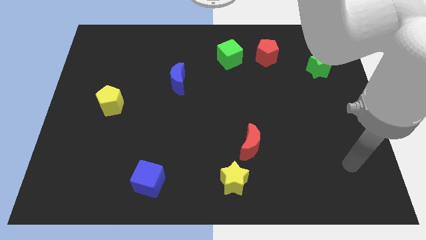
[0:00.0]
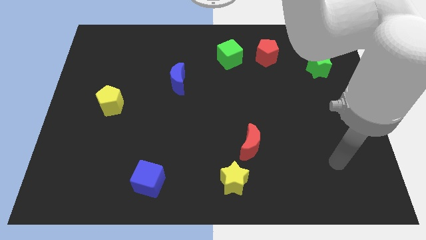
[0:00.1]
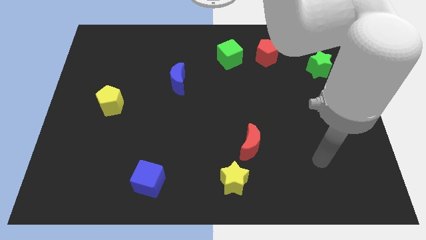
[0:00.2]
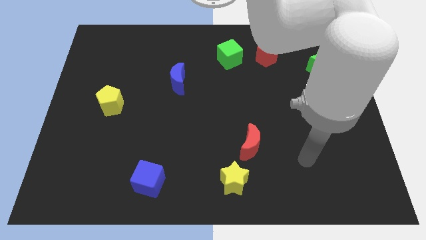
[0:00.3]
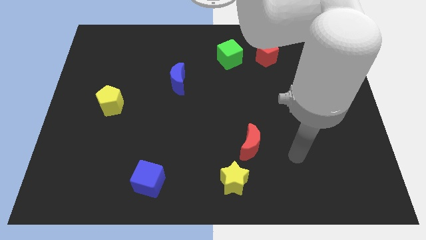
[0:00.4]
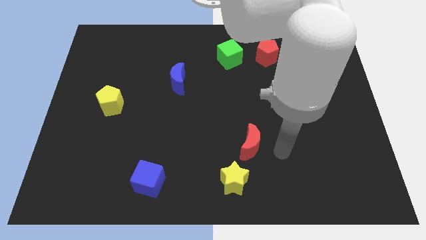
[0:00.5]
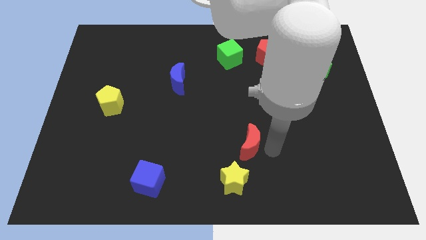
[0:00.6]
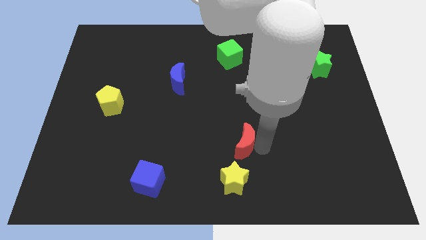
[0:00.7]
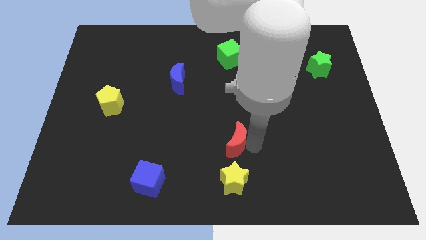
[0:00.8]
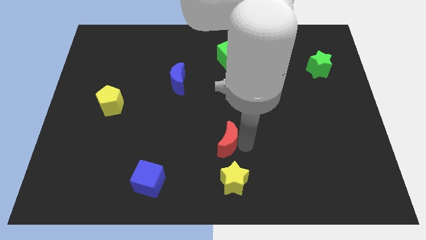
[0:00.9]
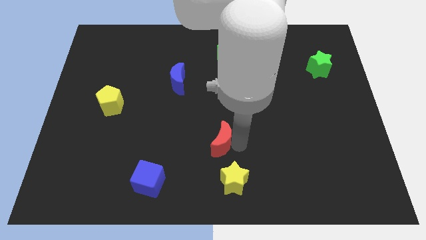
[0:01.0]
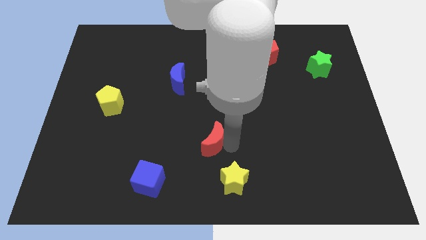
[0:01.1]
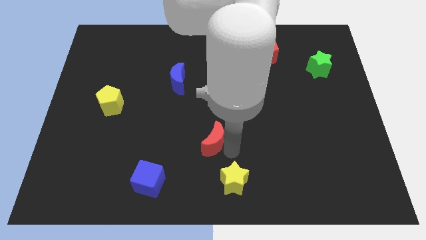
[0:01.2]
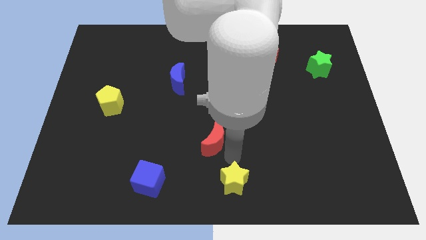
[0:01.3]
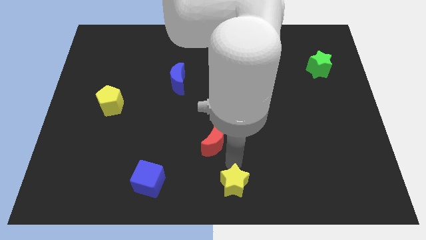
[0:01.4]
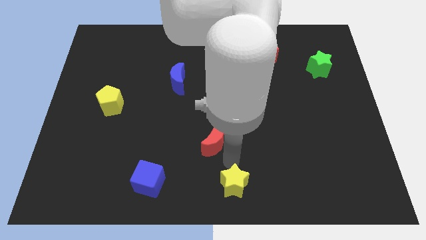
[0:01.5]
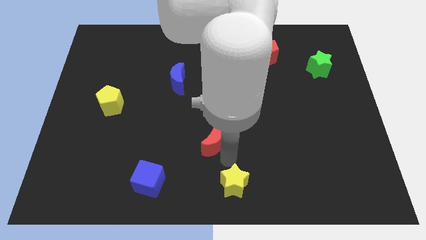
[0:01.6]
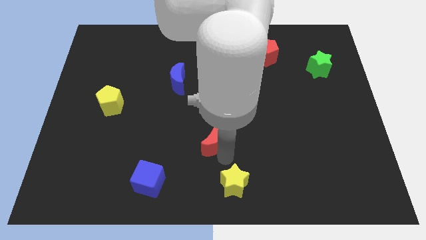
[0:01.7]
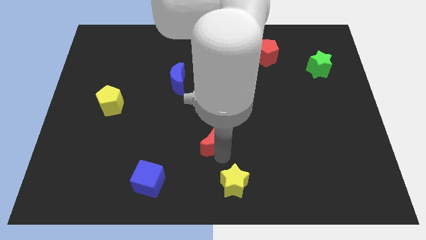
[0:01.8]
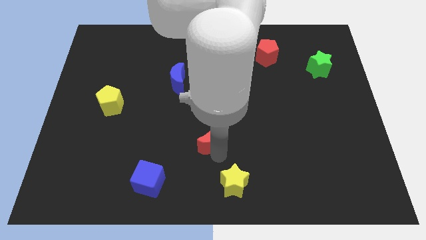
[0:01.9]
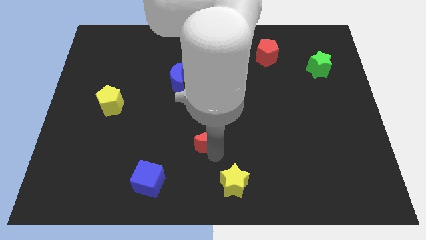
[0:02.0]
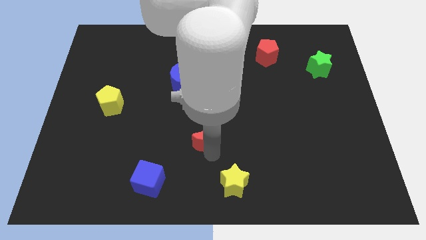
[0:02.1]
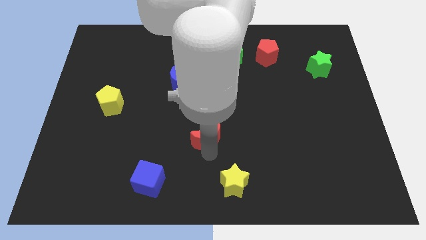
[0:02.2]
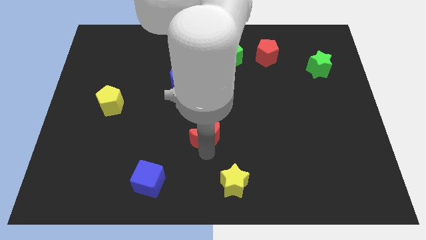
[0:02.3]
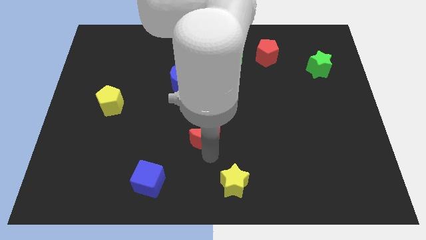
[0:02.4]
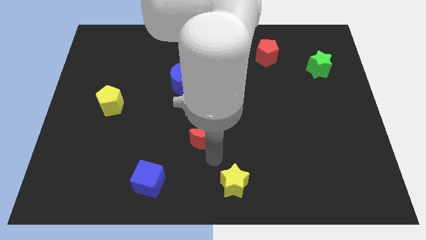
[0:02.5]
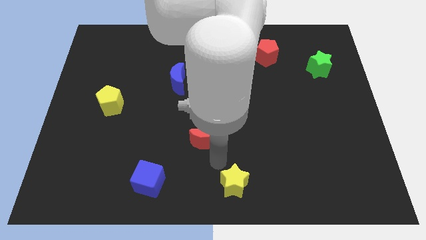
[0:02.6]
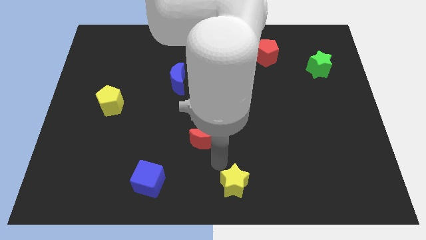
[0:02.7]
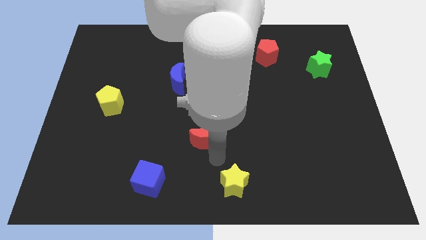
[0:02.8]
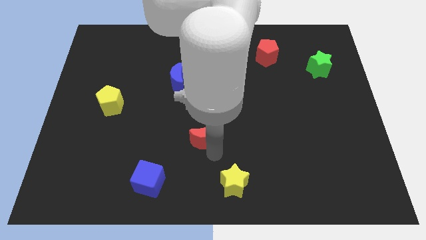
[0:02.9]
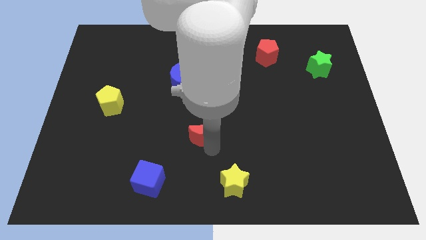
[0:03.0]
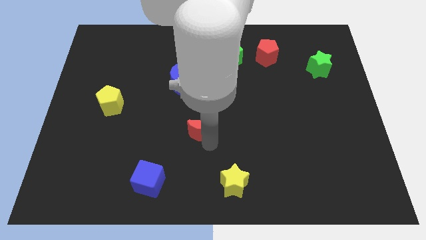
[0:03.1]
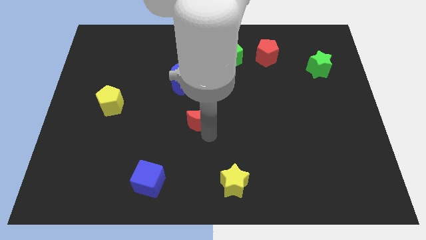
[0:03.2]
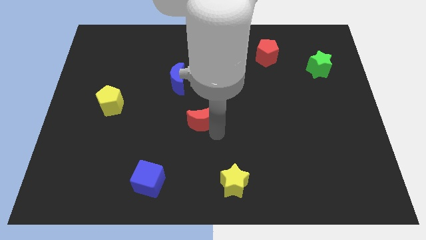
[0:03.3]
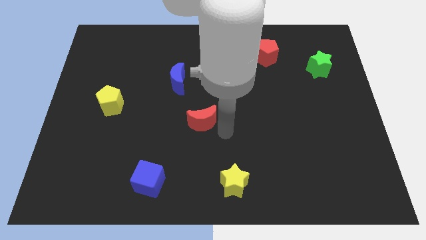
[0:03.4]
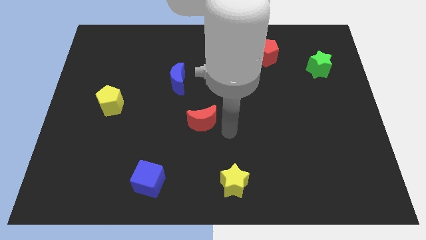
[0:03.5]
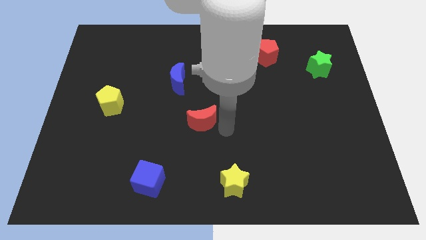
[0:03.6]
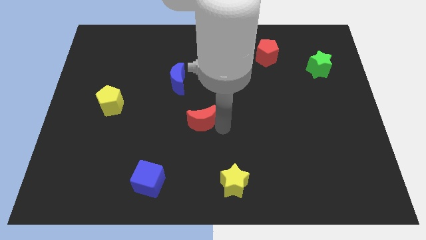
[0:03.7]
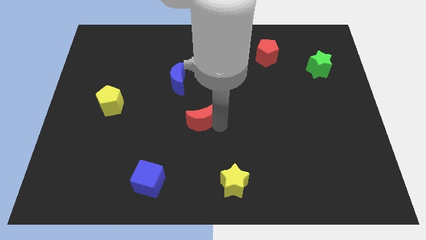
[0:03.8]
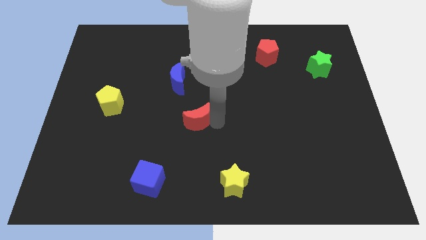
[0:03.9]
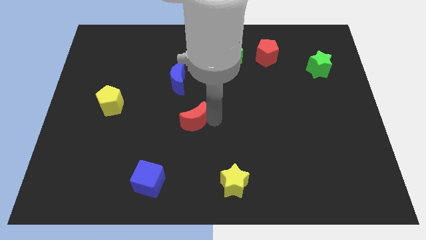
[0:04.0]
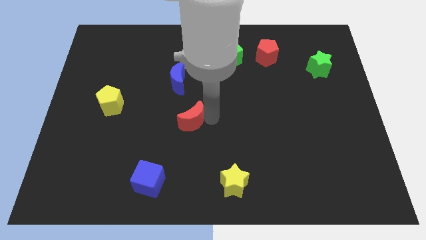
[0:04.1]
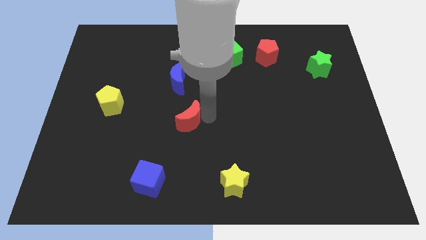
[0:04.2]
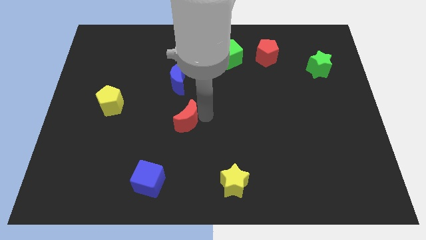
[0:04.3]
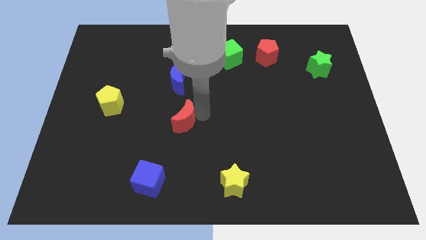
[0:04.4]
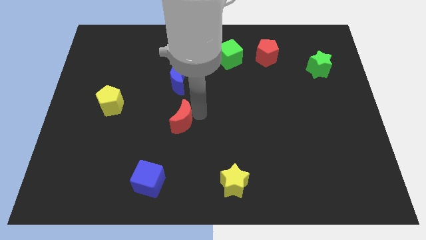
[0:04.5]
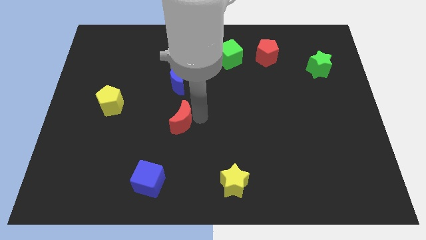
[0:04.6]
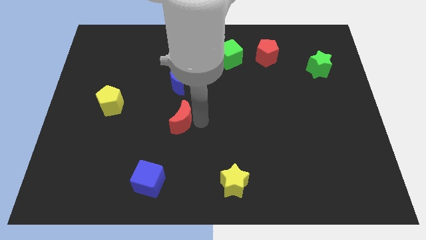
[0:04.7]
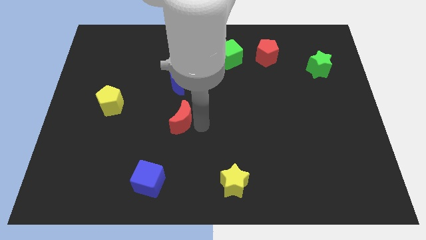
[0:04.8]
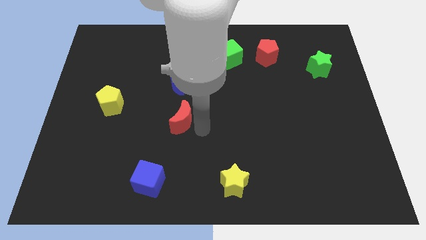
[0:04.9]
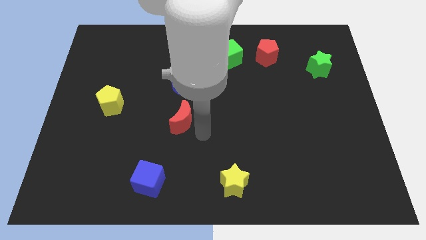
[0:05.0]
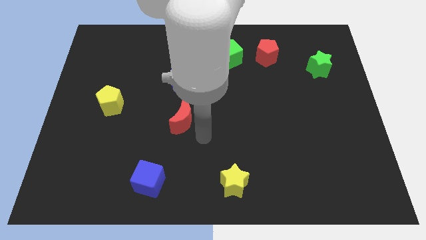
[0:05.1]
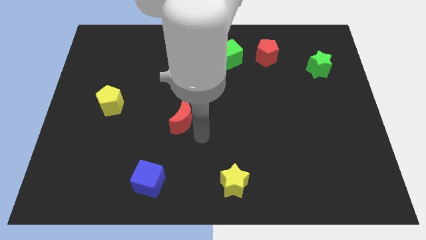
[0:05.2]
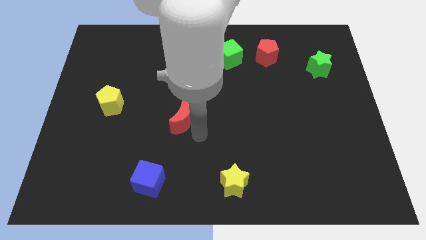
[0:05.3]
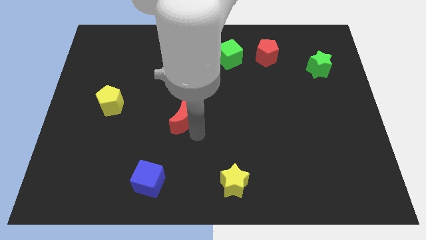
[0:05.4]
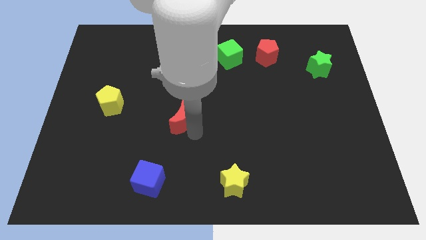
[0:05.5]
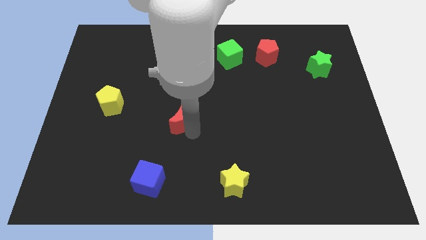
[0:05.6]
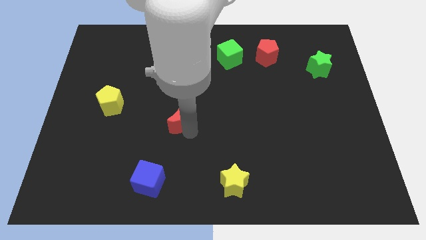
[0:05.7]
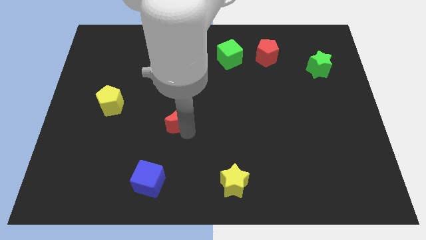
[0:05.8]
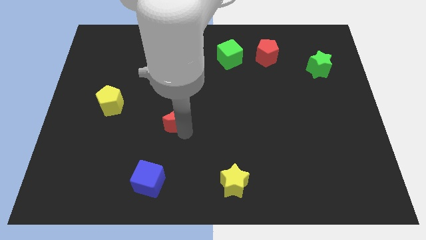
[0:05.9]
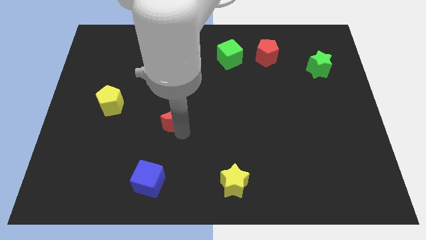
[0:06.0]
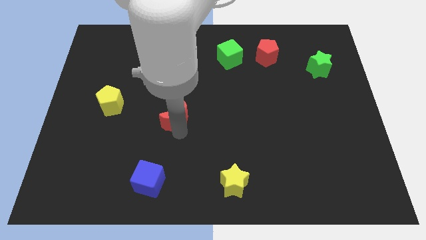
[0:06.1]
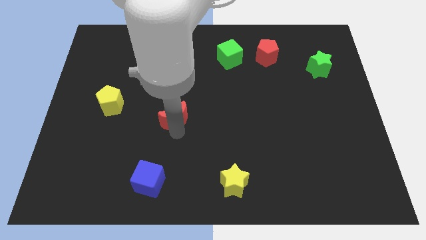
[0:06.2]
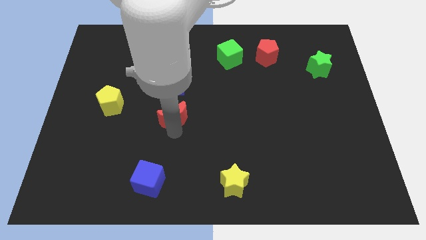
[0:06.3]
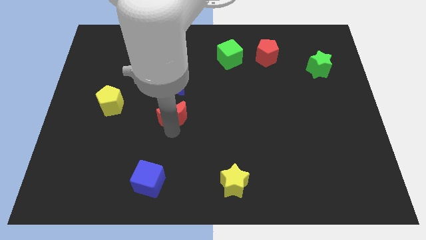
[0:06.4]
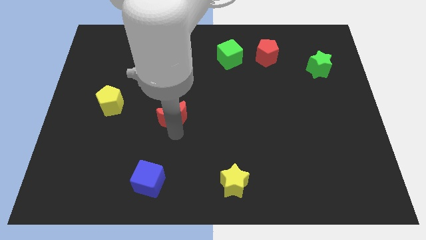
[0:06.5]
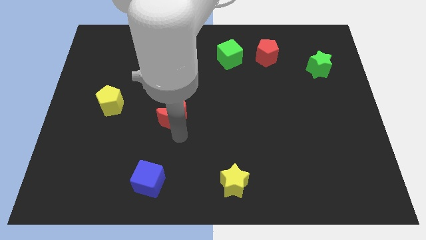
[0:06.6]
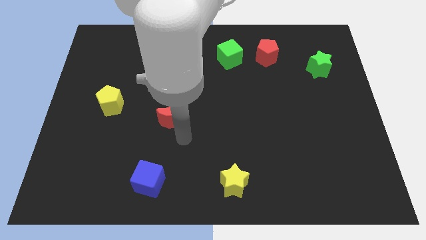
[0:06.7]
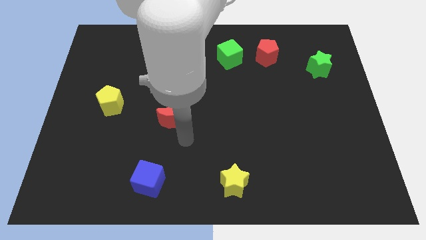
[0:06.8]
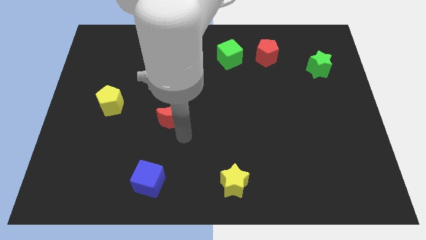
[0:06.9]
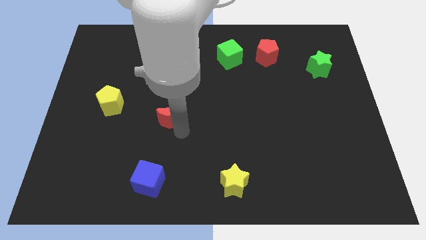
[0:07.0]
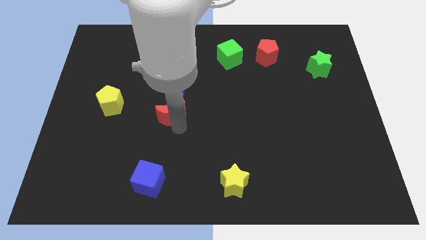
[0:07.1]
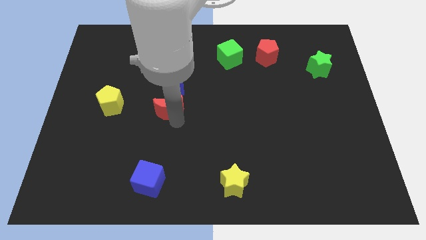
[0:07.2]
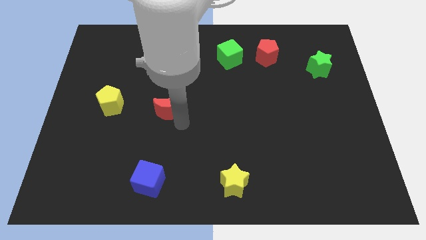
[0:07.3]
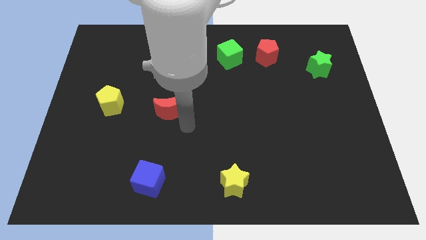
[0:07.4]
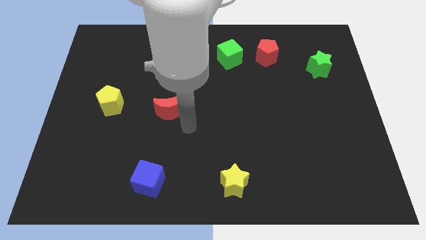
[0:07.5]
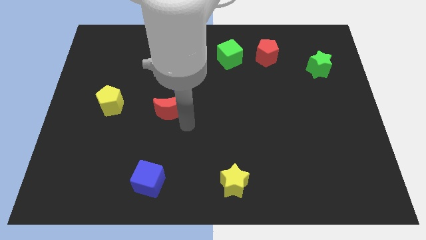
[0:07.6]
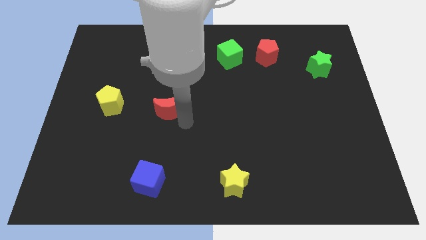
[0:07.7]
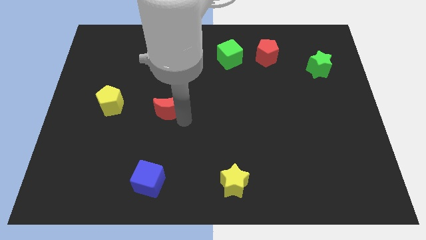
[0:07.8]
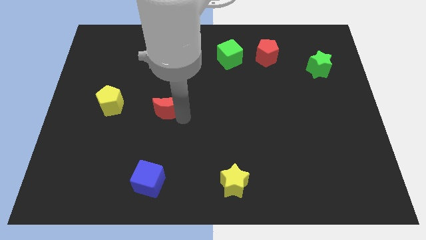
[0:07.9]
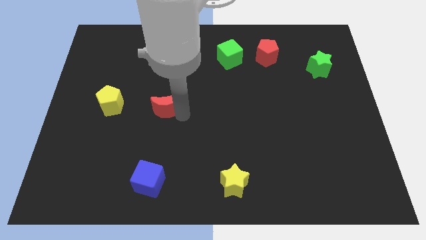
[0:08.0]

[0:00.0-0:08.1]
push the red moon to the bottom left side of the blue moon
